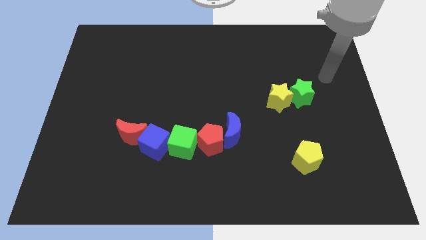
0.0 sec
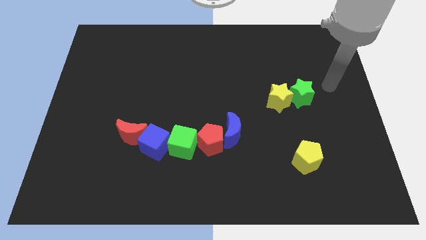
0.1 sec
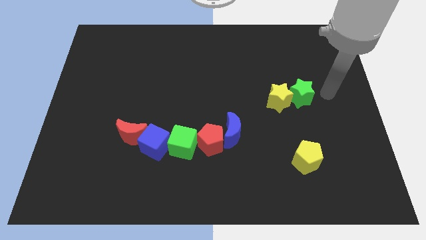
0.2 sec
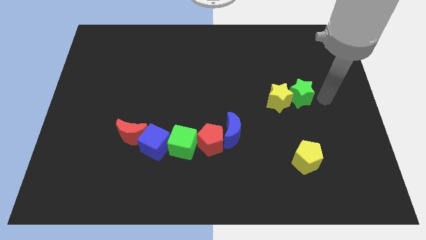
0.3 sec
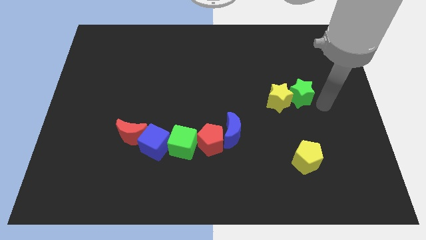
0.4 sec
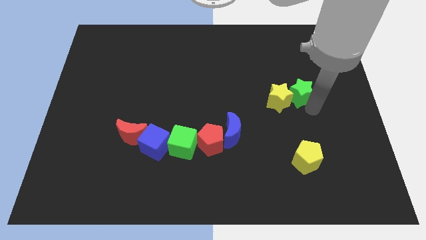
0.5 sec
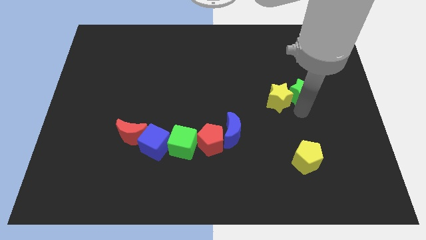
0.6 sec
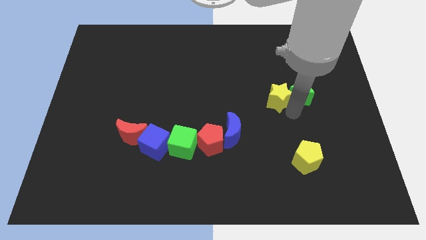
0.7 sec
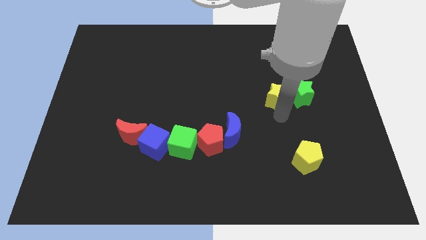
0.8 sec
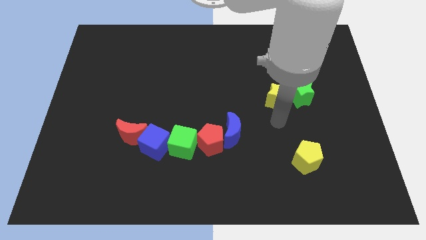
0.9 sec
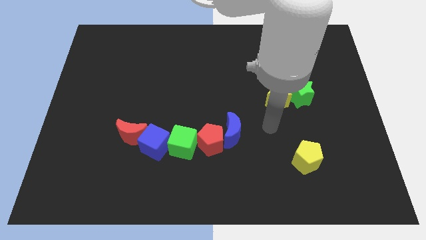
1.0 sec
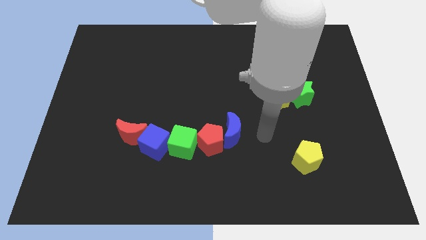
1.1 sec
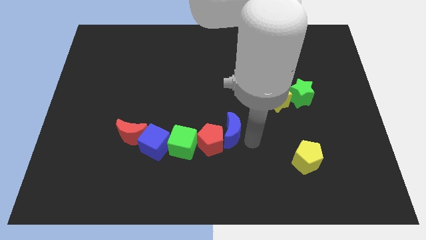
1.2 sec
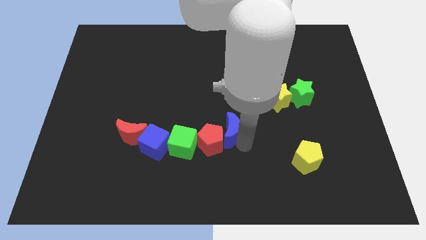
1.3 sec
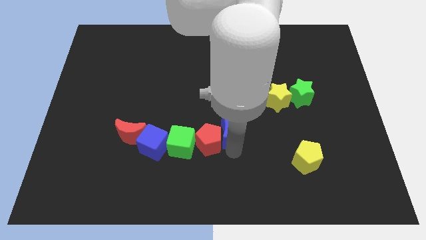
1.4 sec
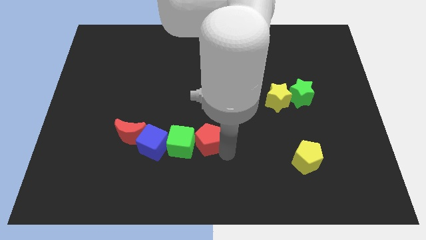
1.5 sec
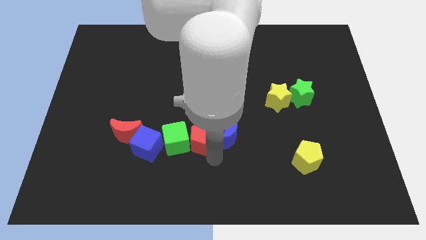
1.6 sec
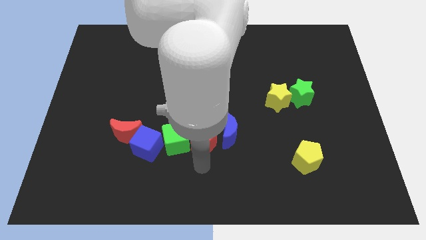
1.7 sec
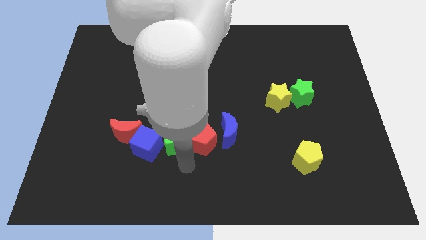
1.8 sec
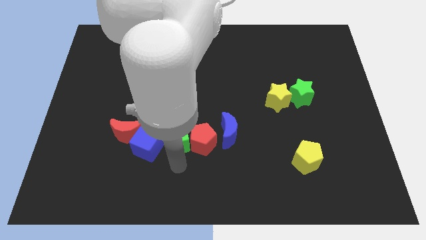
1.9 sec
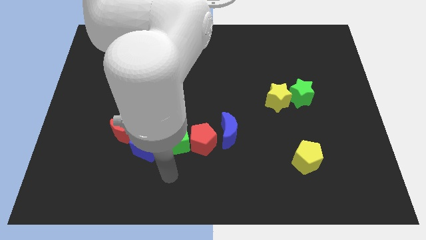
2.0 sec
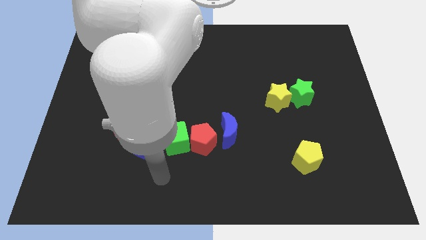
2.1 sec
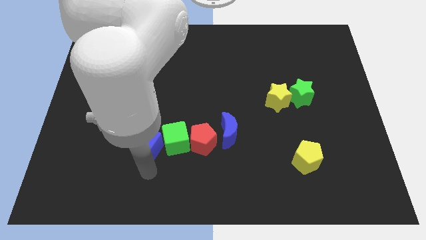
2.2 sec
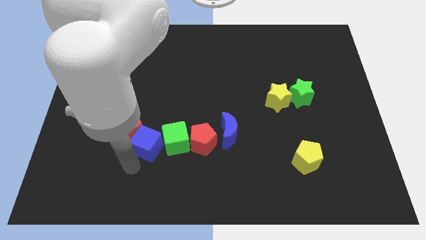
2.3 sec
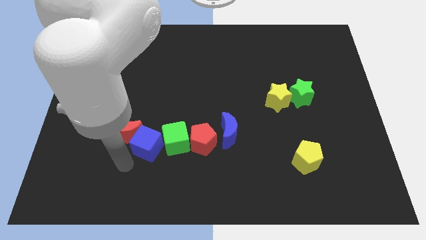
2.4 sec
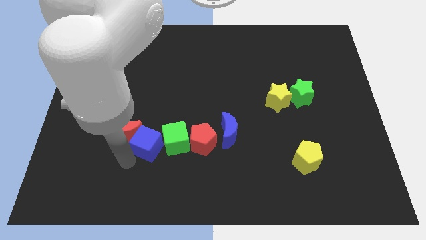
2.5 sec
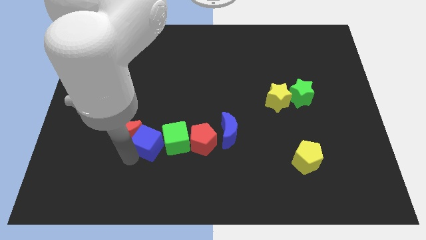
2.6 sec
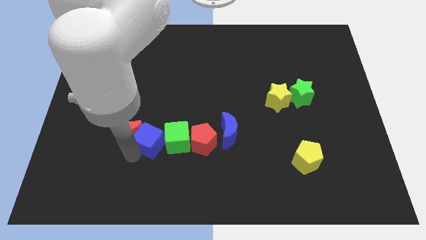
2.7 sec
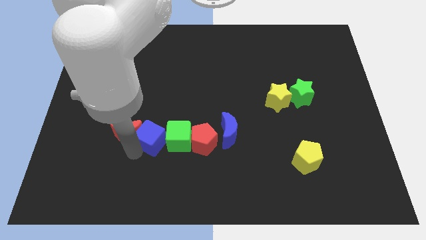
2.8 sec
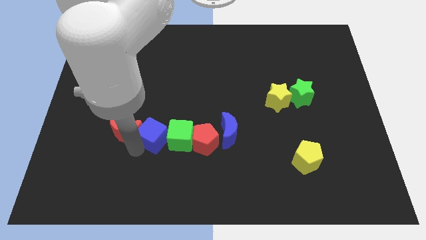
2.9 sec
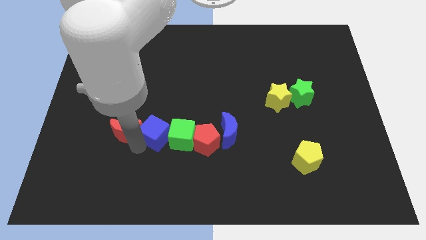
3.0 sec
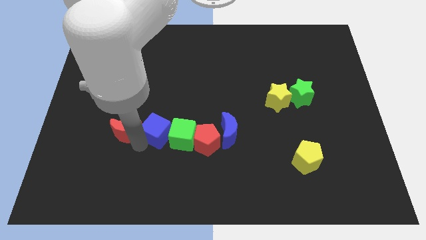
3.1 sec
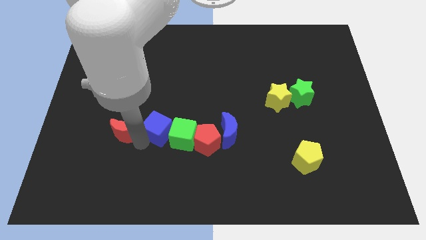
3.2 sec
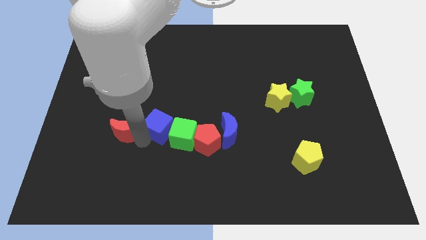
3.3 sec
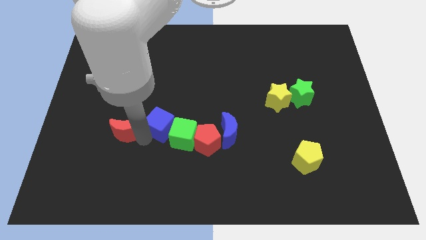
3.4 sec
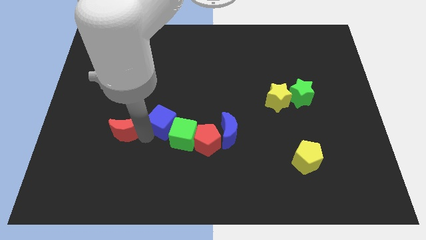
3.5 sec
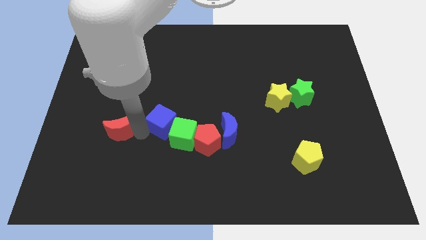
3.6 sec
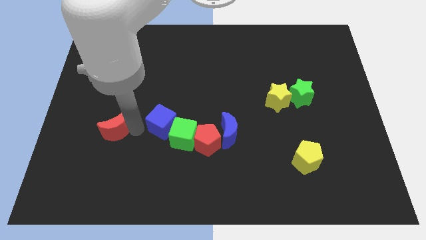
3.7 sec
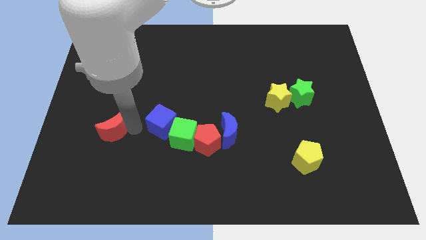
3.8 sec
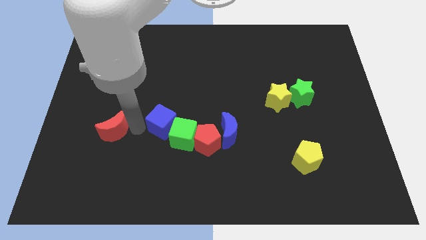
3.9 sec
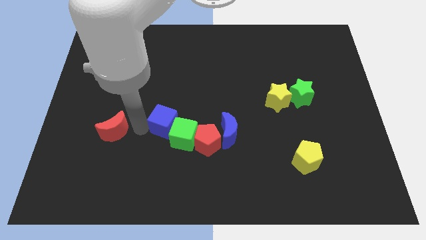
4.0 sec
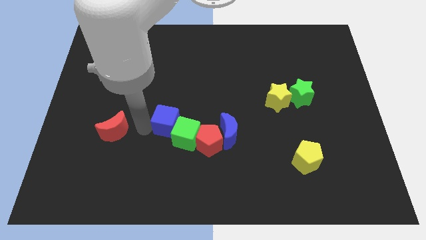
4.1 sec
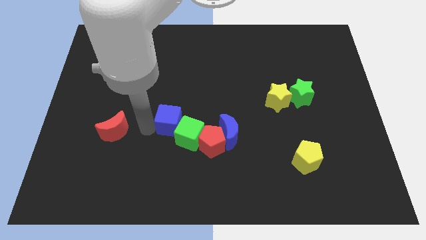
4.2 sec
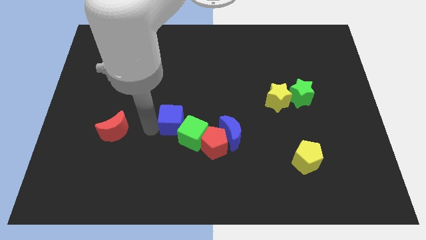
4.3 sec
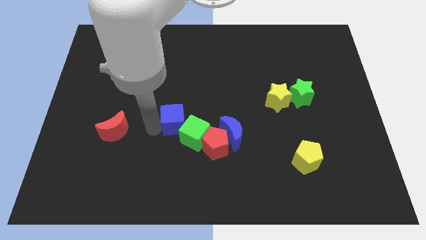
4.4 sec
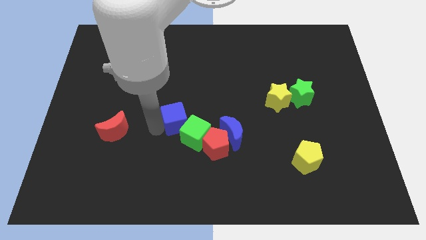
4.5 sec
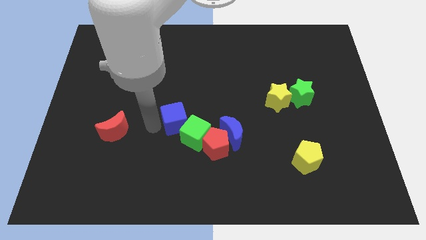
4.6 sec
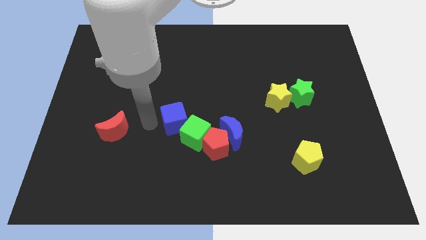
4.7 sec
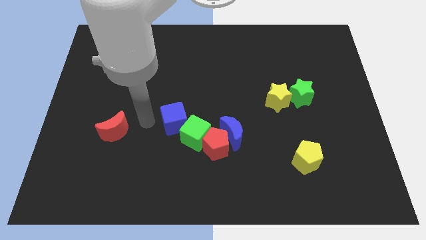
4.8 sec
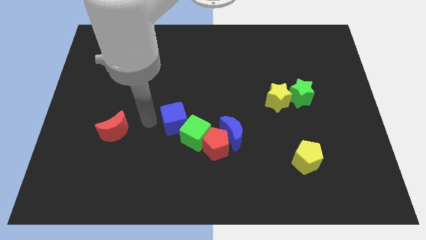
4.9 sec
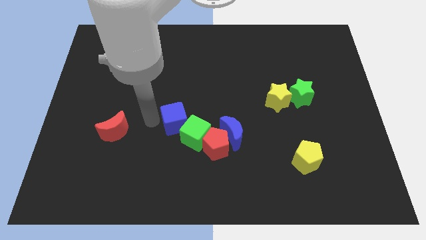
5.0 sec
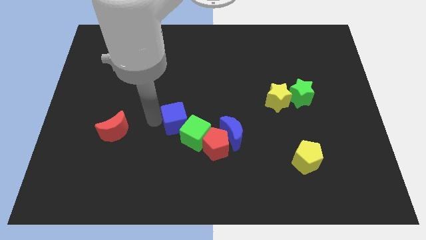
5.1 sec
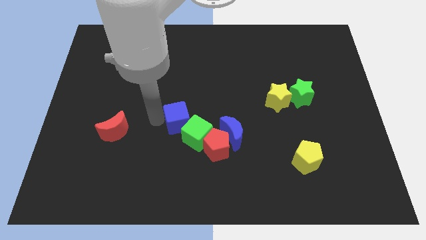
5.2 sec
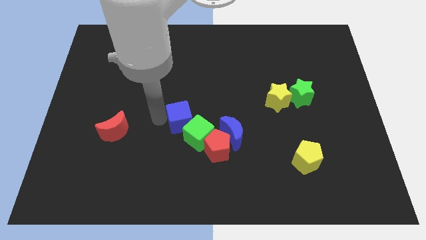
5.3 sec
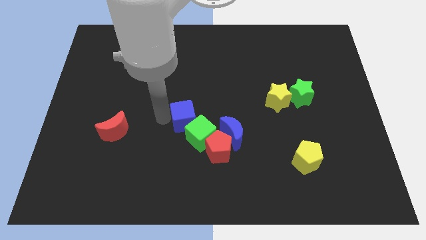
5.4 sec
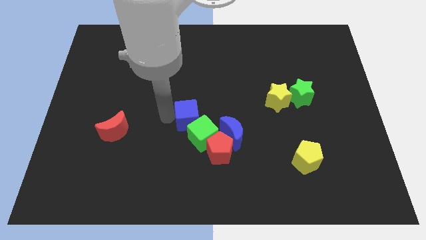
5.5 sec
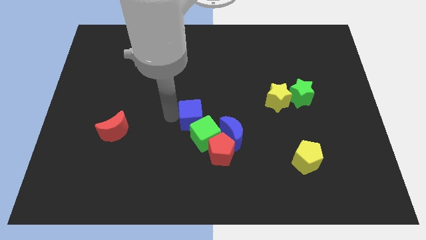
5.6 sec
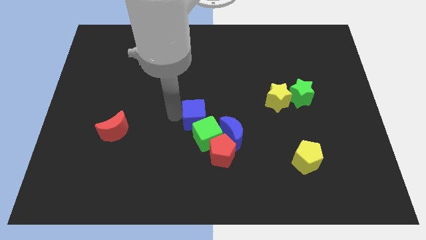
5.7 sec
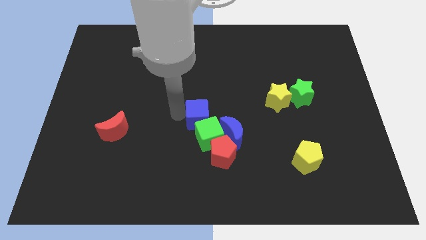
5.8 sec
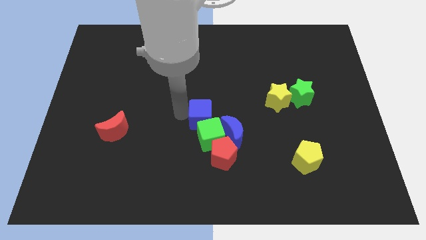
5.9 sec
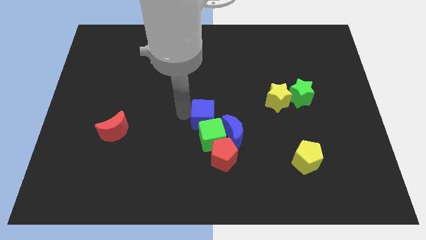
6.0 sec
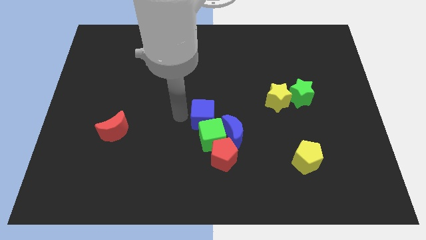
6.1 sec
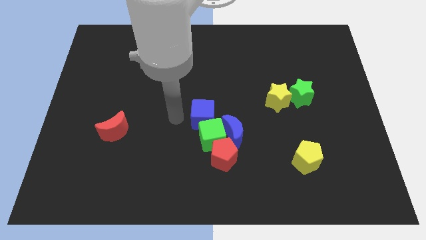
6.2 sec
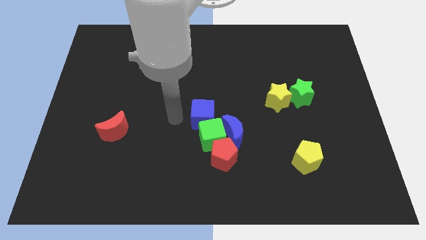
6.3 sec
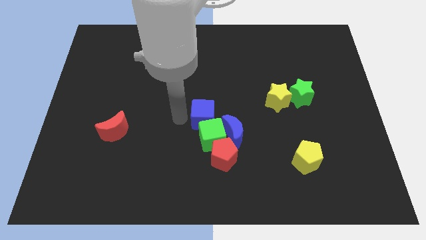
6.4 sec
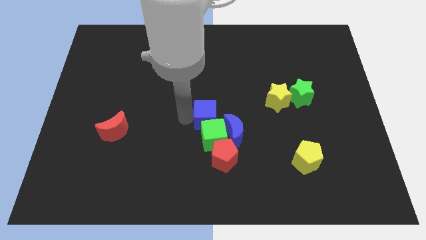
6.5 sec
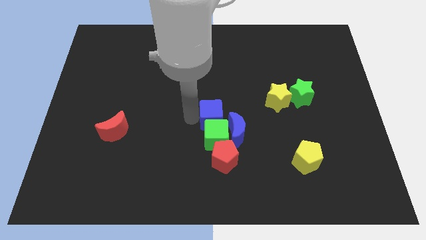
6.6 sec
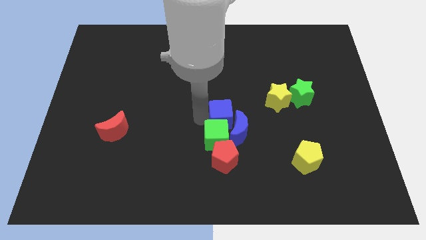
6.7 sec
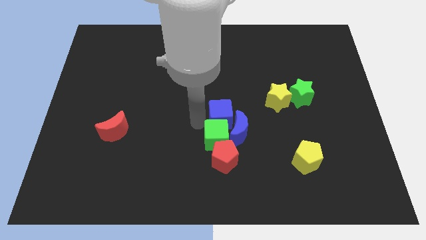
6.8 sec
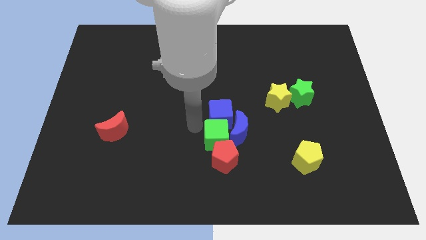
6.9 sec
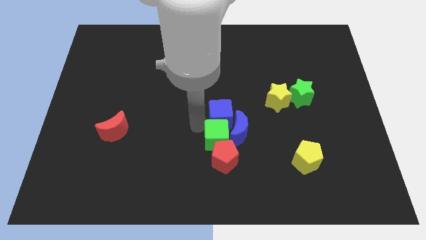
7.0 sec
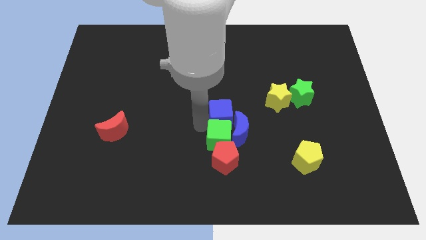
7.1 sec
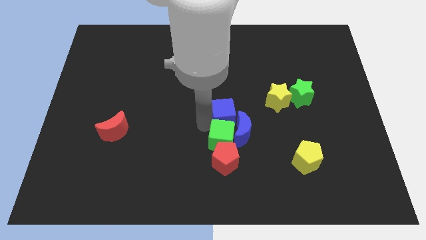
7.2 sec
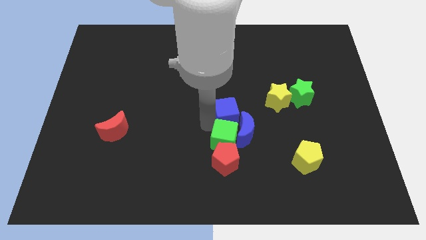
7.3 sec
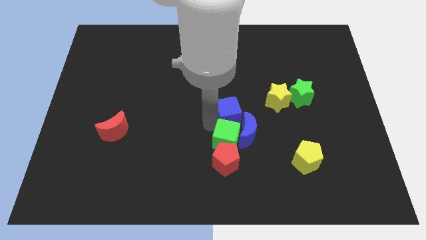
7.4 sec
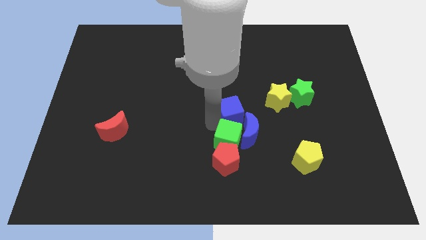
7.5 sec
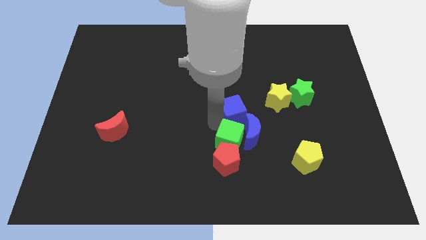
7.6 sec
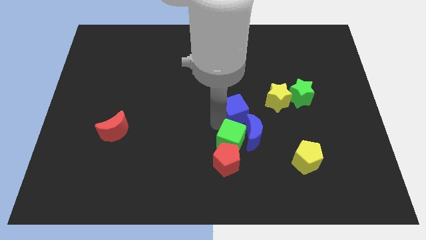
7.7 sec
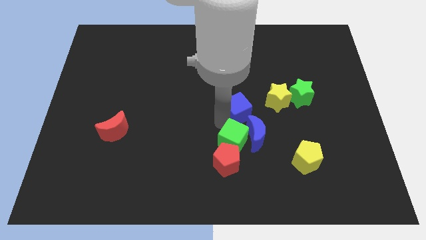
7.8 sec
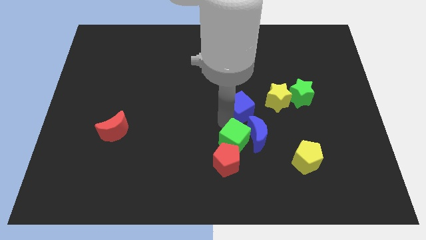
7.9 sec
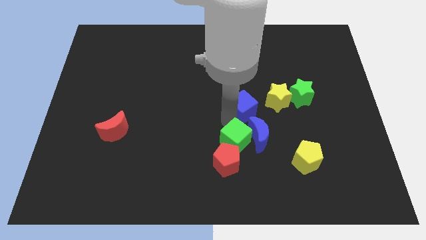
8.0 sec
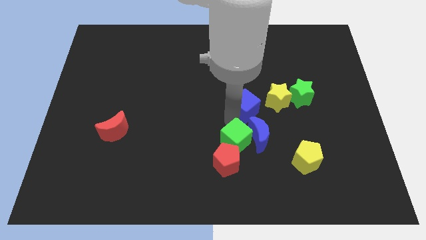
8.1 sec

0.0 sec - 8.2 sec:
push the blue cube to the left side of the green star
